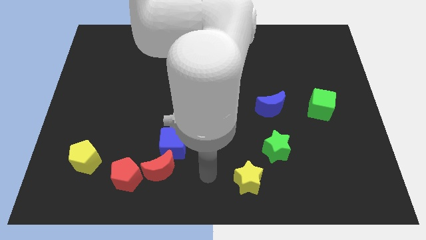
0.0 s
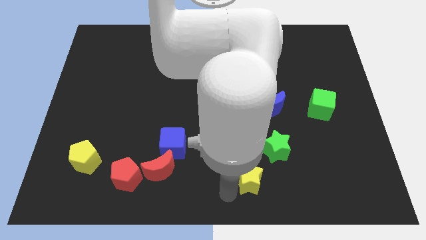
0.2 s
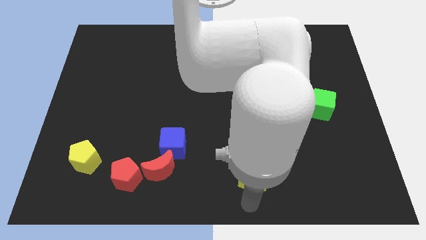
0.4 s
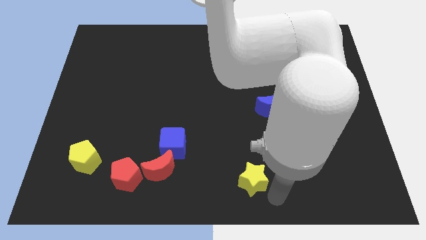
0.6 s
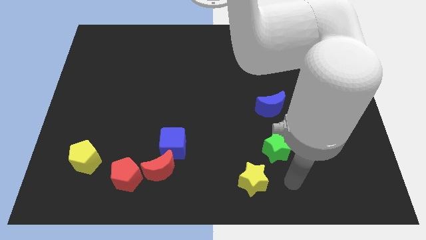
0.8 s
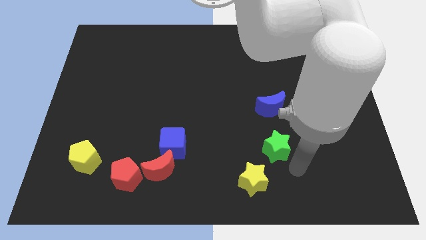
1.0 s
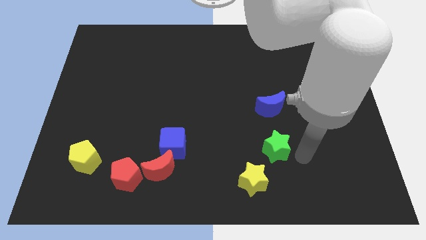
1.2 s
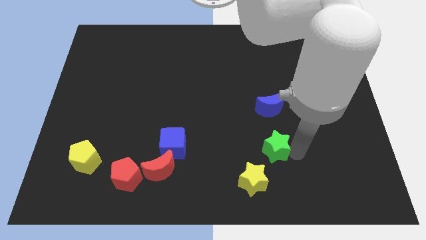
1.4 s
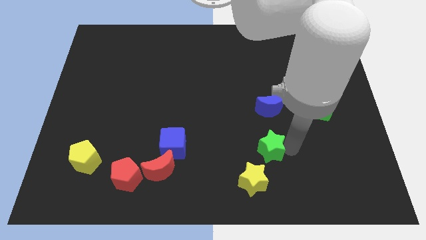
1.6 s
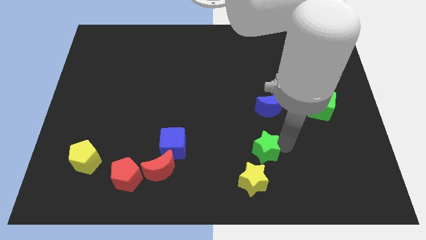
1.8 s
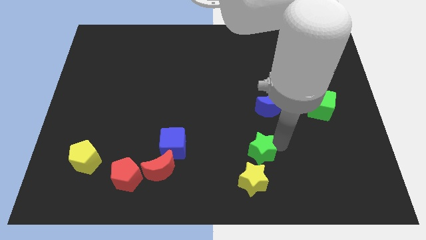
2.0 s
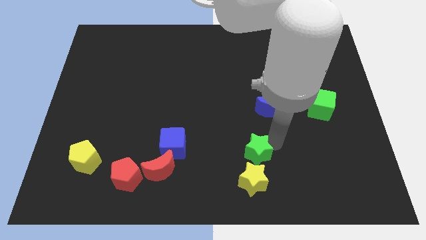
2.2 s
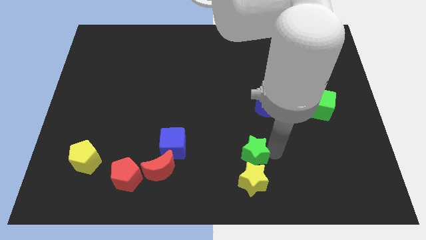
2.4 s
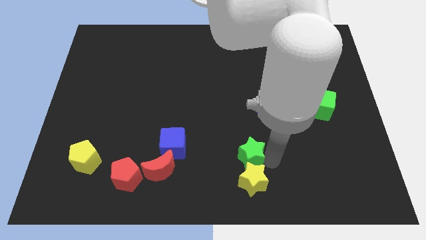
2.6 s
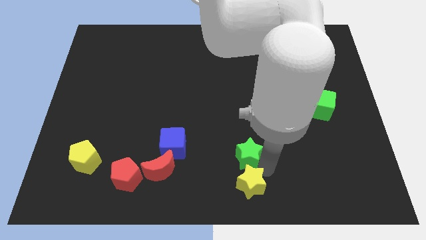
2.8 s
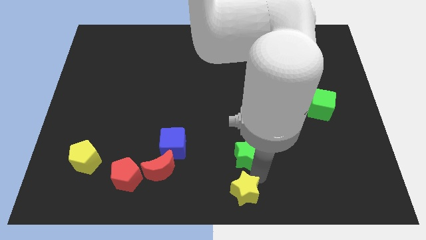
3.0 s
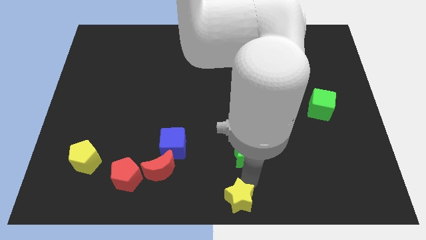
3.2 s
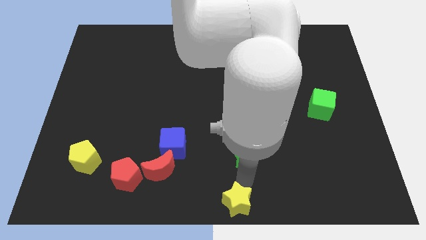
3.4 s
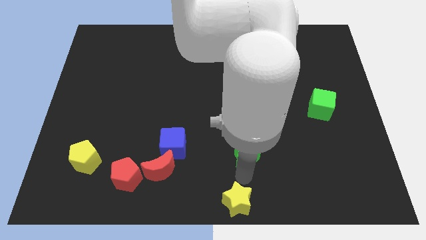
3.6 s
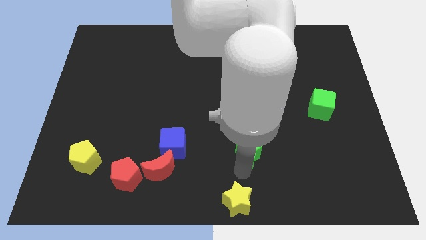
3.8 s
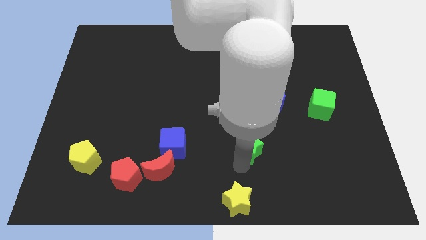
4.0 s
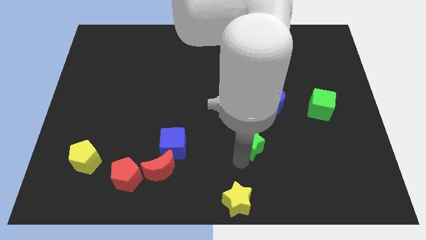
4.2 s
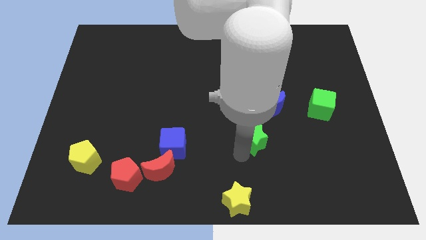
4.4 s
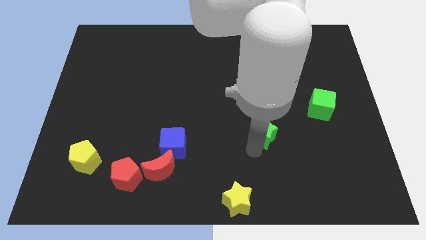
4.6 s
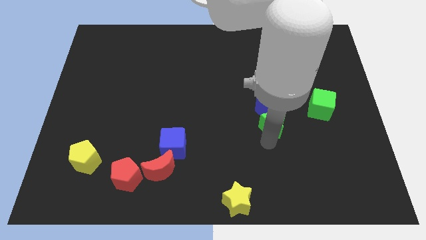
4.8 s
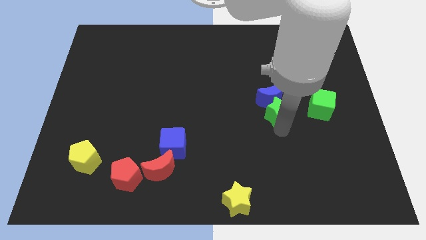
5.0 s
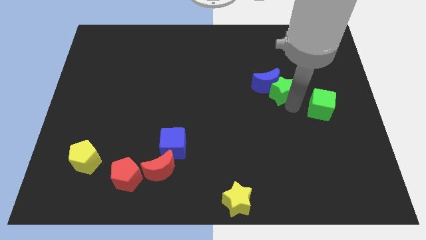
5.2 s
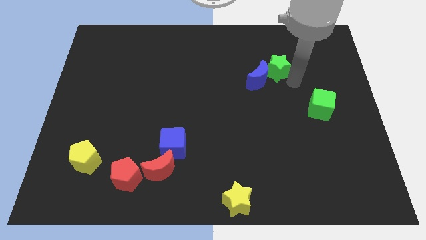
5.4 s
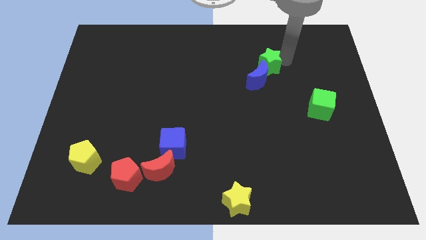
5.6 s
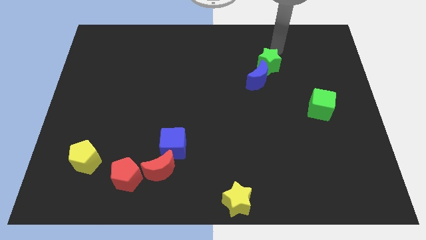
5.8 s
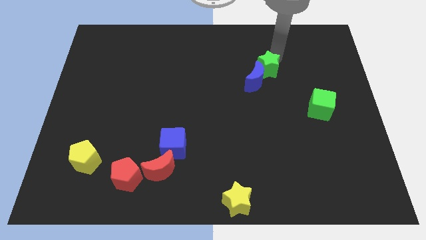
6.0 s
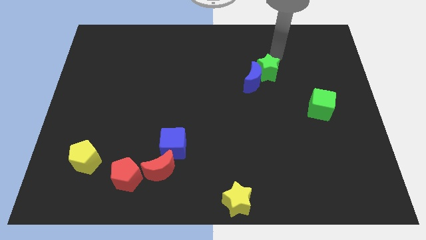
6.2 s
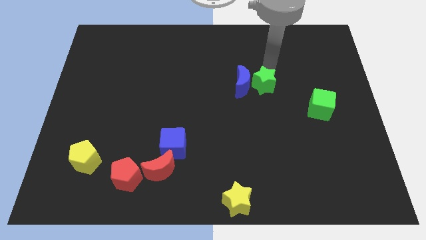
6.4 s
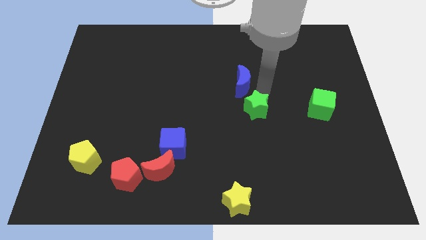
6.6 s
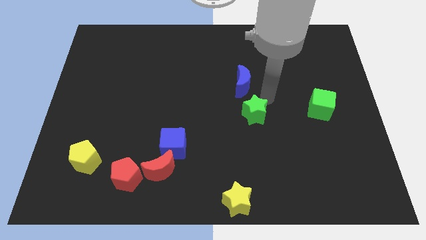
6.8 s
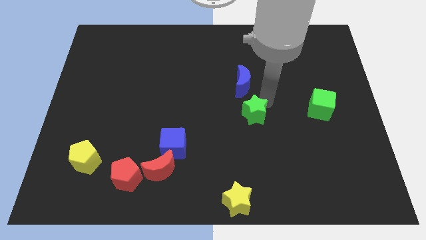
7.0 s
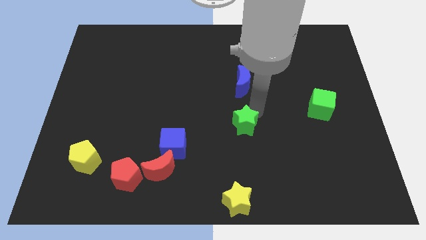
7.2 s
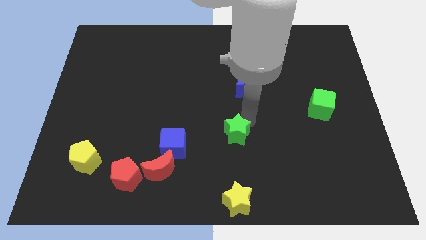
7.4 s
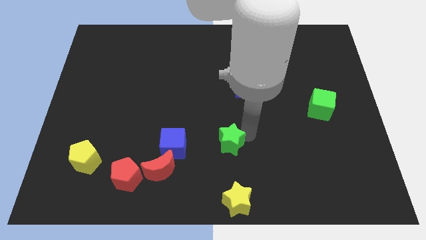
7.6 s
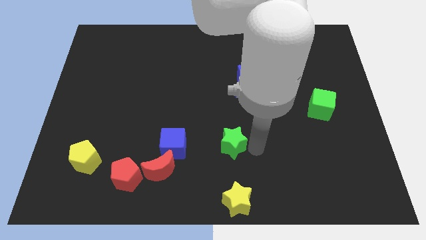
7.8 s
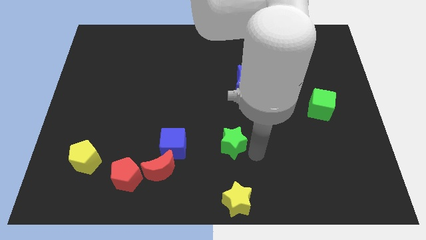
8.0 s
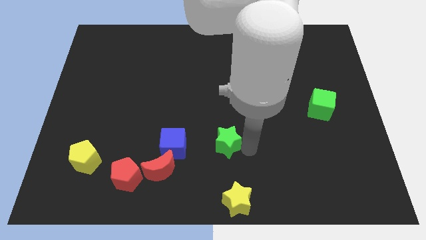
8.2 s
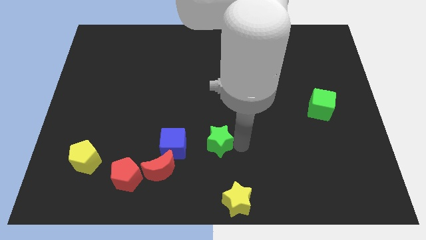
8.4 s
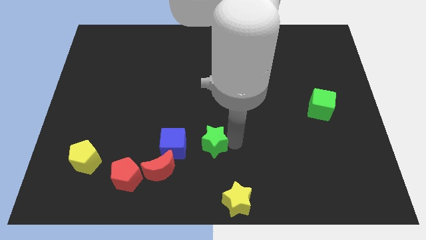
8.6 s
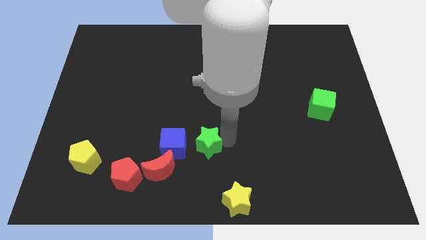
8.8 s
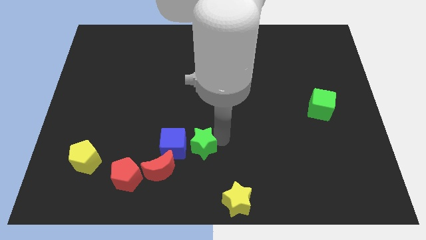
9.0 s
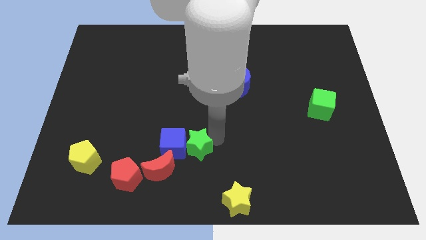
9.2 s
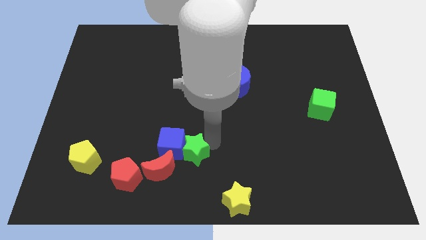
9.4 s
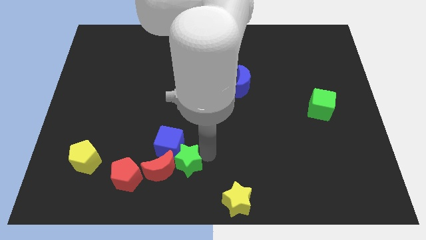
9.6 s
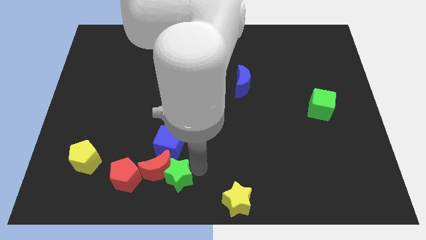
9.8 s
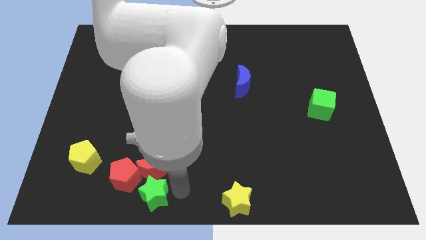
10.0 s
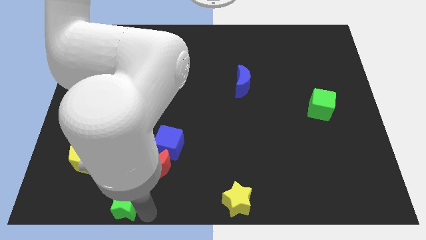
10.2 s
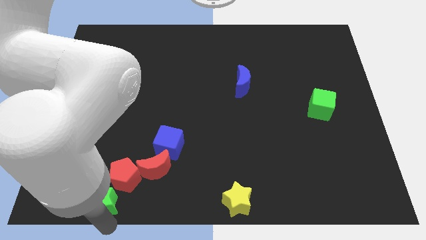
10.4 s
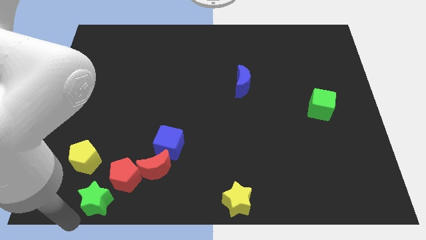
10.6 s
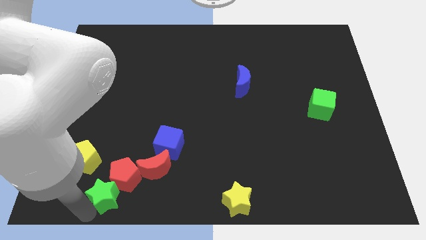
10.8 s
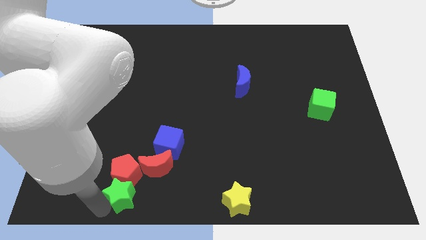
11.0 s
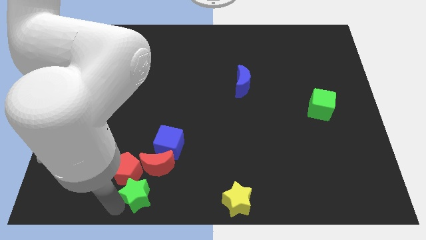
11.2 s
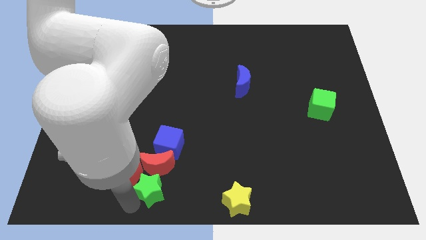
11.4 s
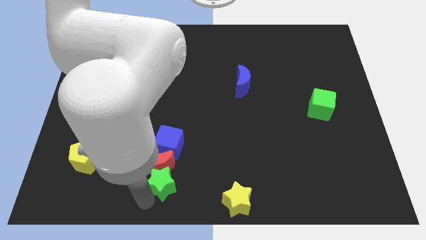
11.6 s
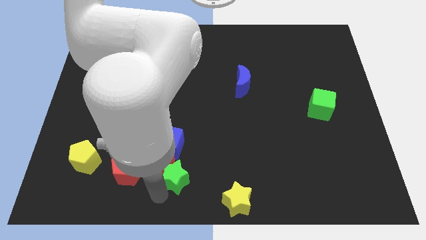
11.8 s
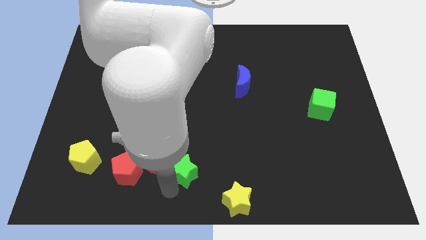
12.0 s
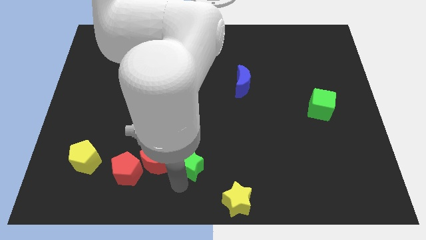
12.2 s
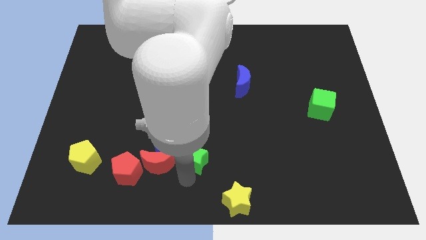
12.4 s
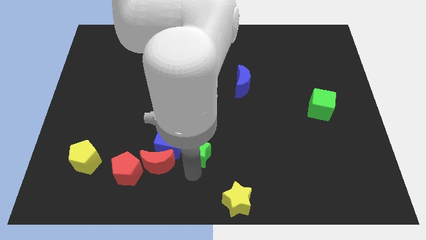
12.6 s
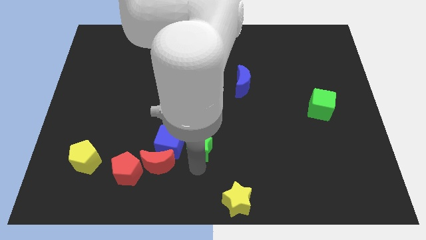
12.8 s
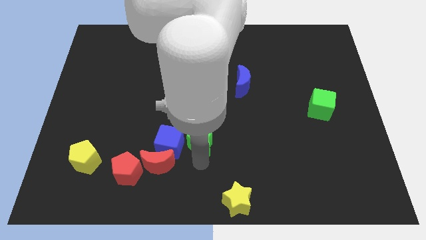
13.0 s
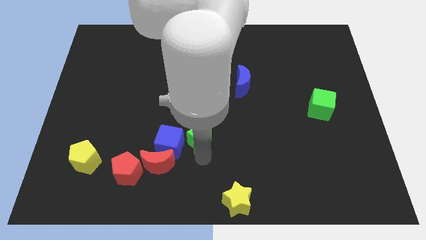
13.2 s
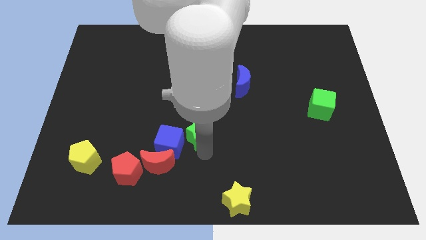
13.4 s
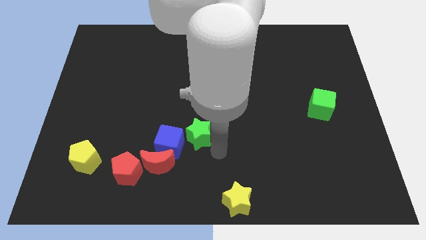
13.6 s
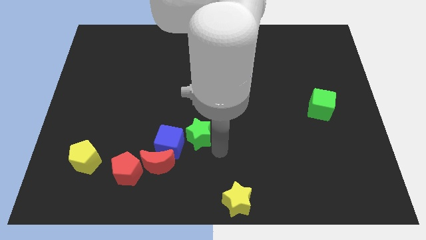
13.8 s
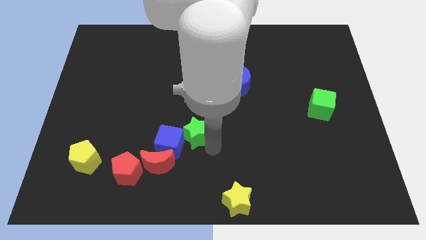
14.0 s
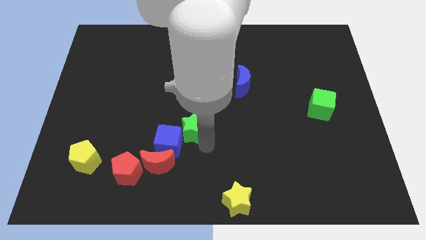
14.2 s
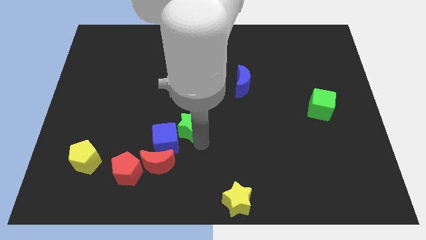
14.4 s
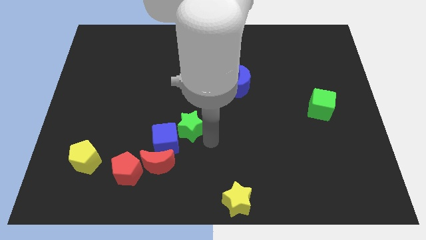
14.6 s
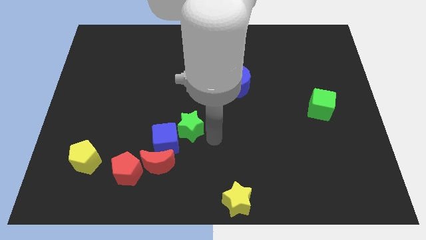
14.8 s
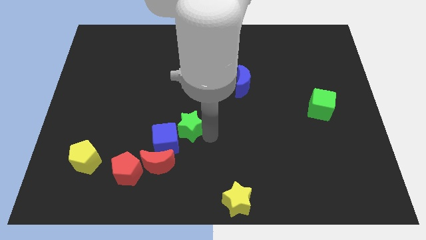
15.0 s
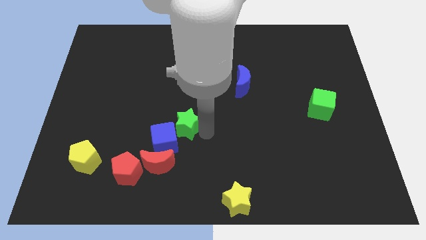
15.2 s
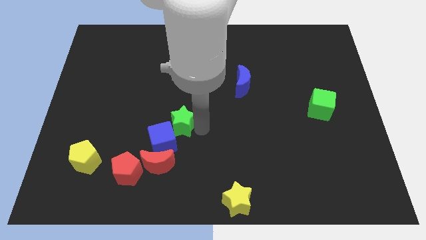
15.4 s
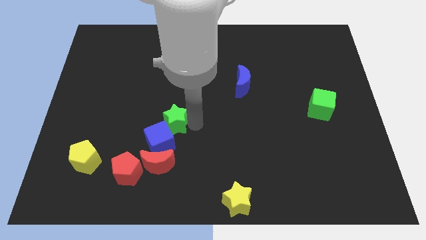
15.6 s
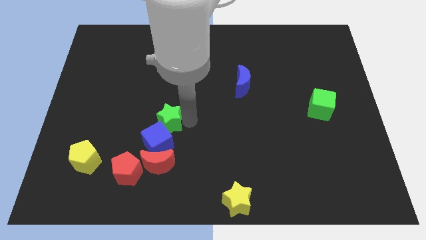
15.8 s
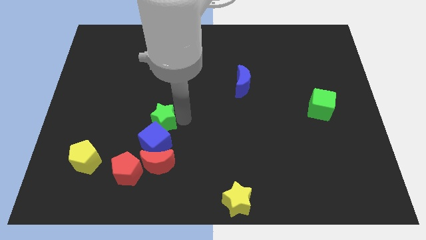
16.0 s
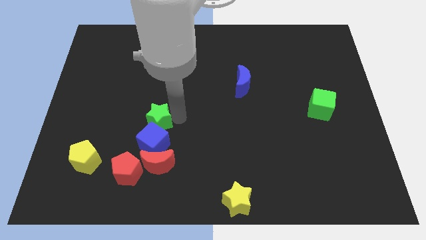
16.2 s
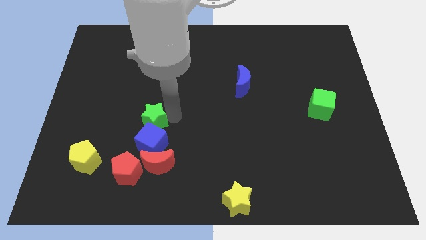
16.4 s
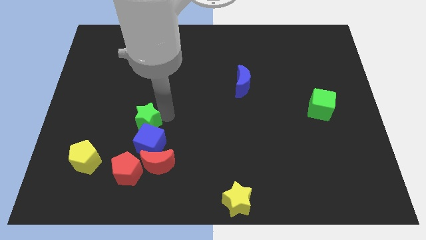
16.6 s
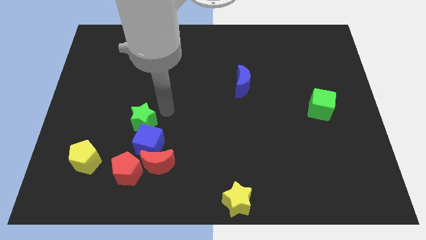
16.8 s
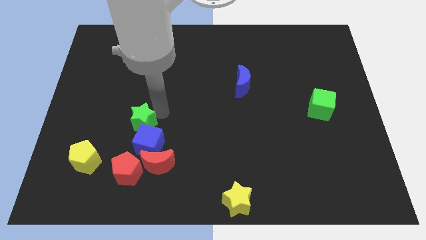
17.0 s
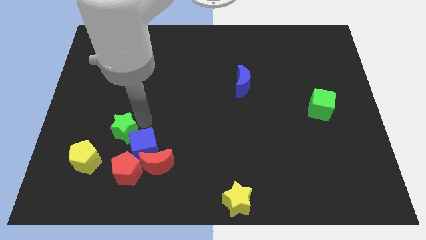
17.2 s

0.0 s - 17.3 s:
slide the green star to the left side of the blue cube
